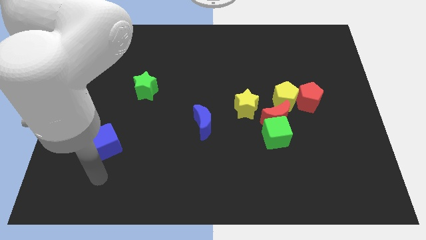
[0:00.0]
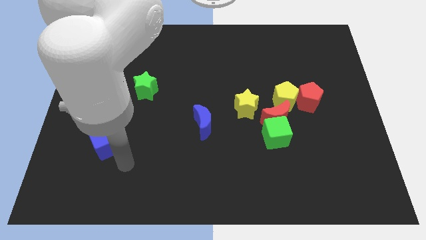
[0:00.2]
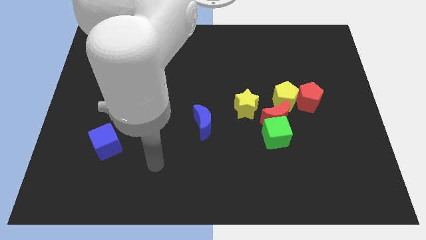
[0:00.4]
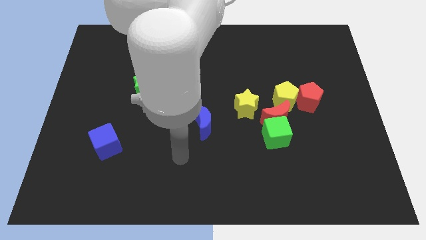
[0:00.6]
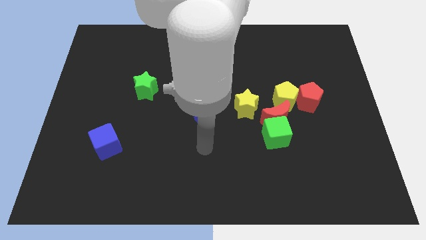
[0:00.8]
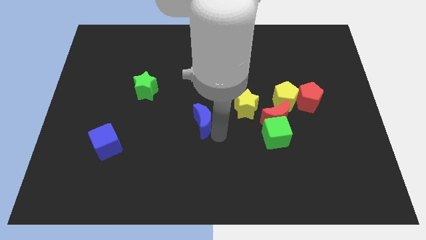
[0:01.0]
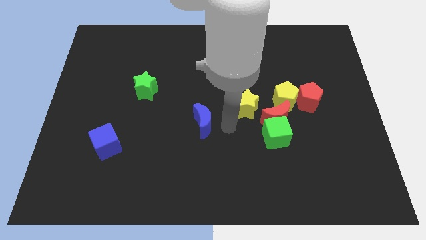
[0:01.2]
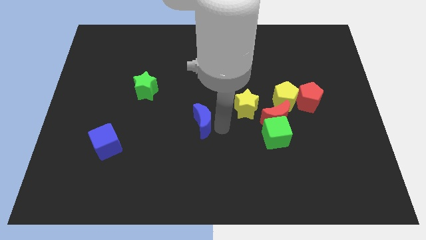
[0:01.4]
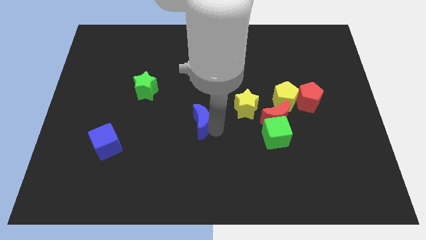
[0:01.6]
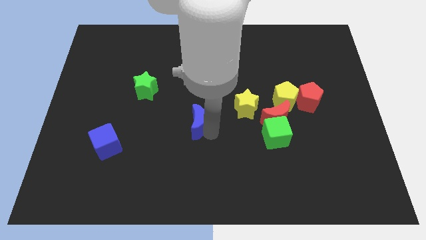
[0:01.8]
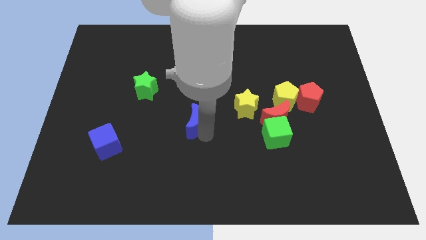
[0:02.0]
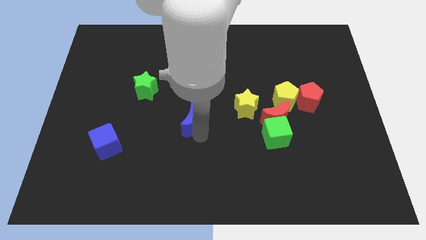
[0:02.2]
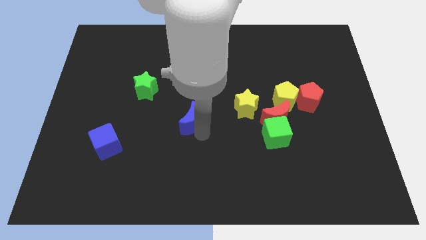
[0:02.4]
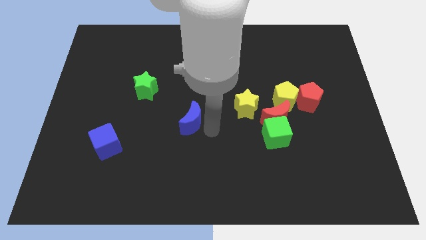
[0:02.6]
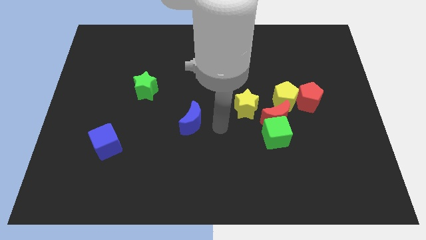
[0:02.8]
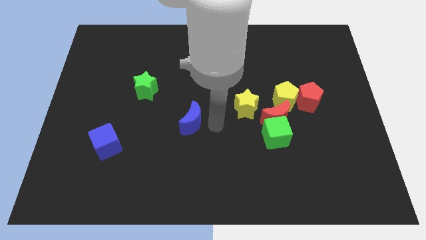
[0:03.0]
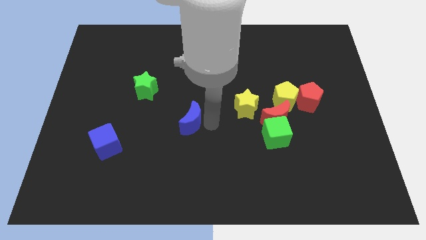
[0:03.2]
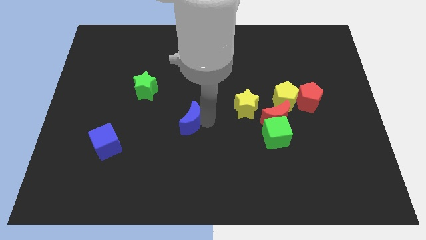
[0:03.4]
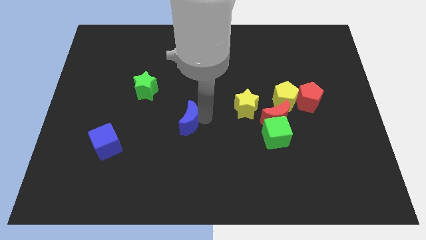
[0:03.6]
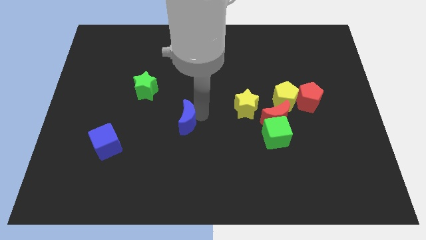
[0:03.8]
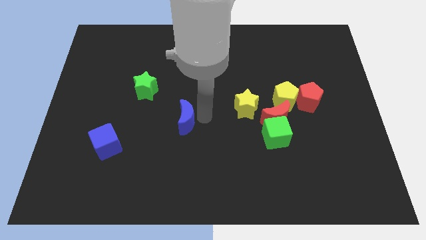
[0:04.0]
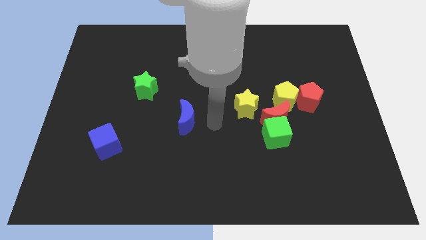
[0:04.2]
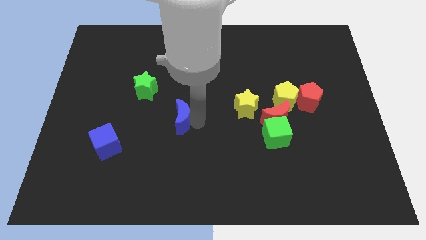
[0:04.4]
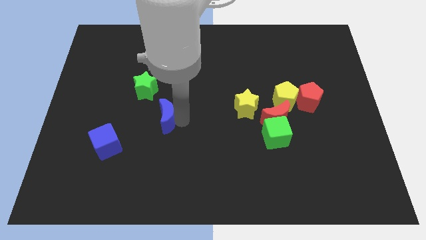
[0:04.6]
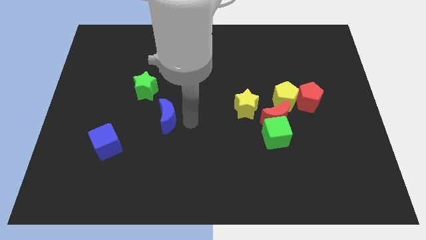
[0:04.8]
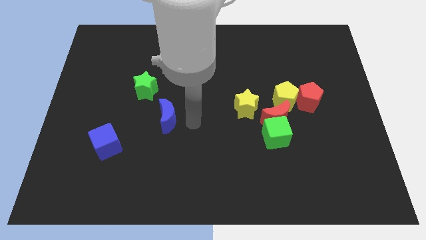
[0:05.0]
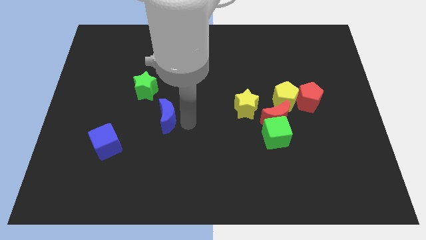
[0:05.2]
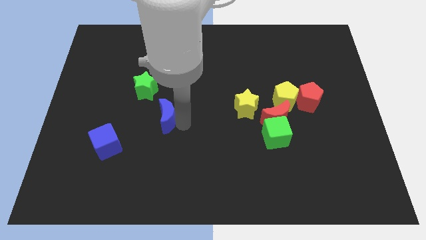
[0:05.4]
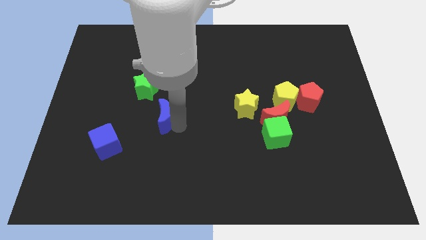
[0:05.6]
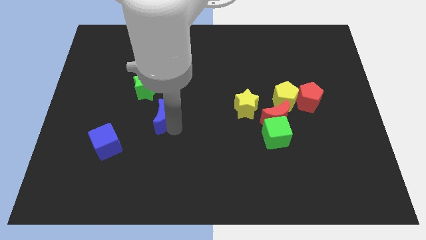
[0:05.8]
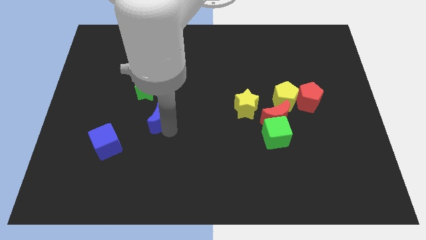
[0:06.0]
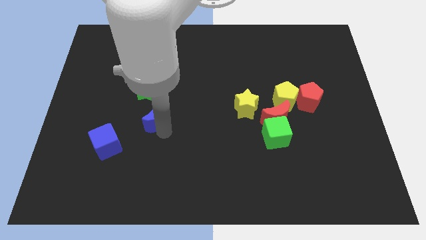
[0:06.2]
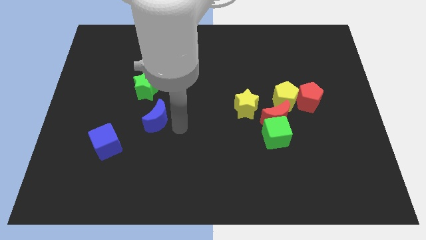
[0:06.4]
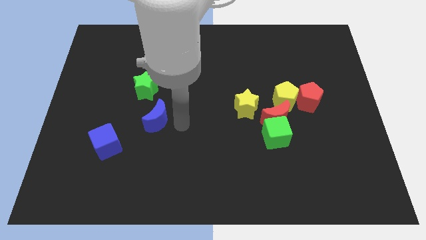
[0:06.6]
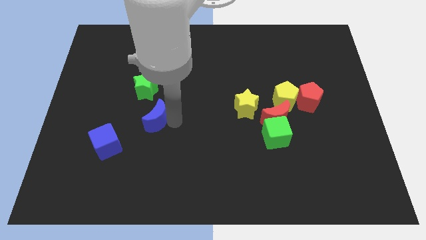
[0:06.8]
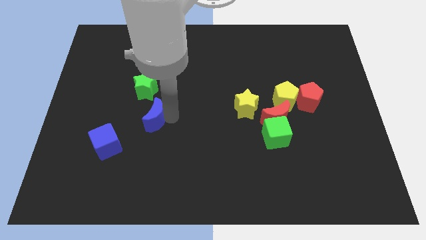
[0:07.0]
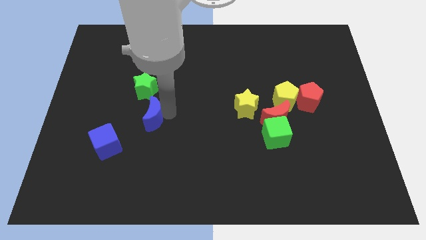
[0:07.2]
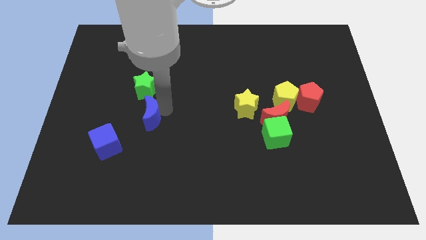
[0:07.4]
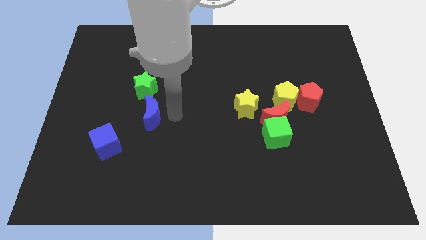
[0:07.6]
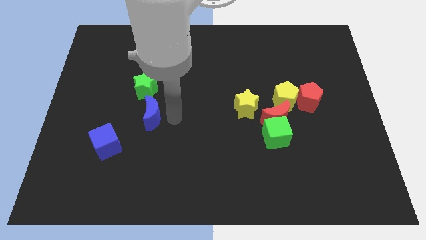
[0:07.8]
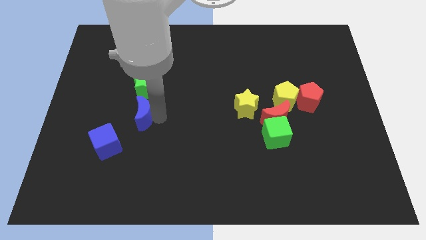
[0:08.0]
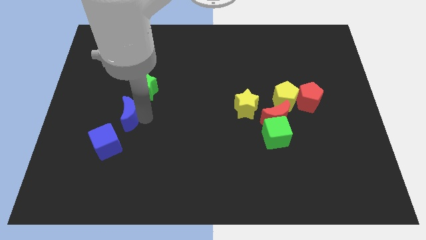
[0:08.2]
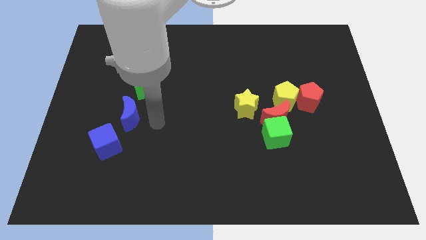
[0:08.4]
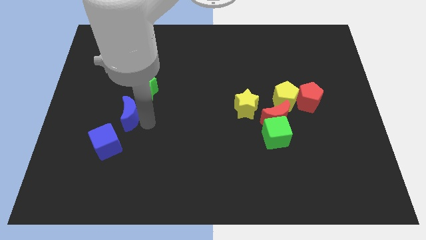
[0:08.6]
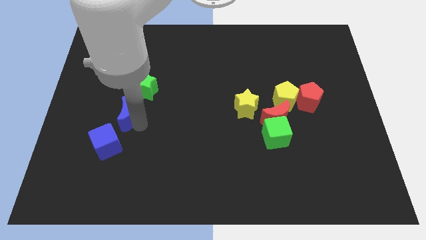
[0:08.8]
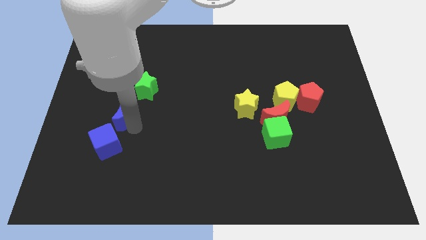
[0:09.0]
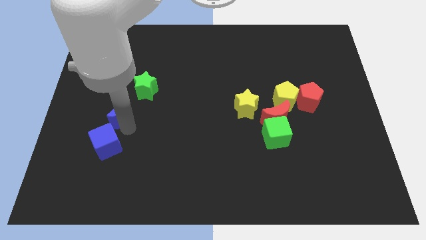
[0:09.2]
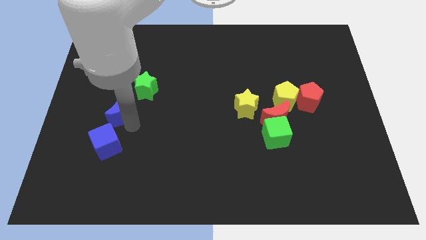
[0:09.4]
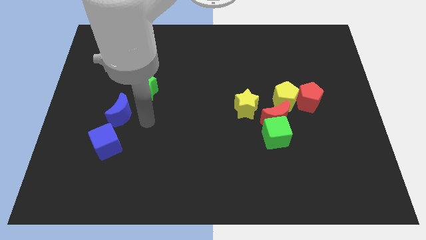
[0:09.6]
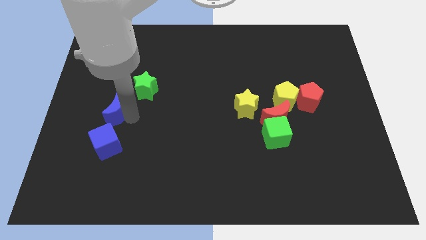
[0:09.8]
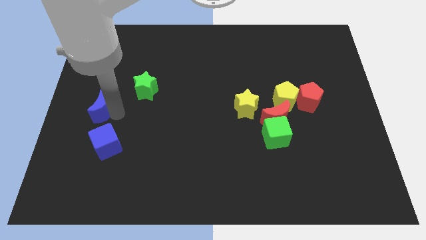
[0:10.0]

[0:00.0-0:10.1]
put the blue moon to the left side of the board

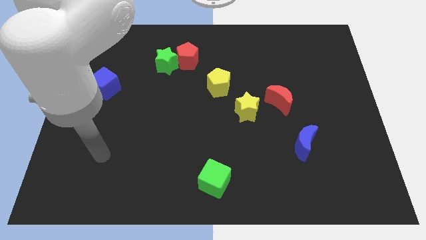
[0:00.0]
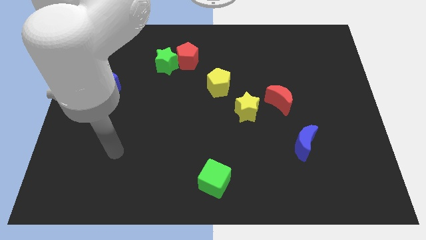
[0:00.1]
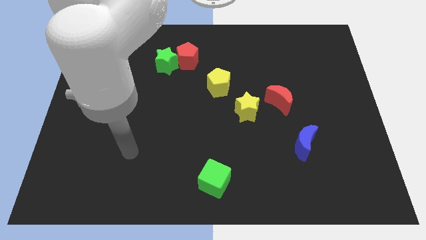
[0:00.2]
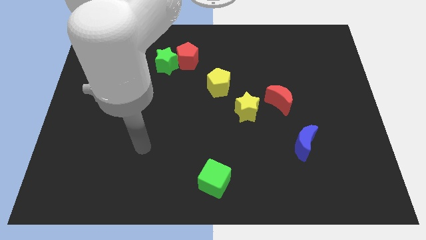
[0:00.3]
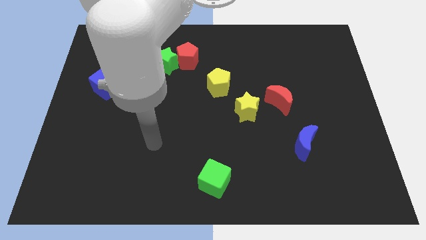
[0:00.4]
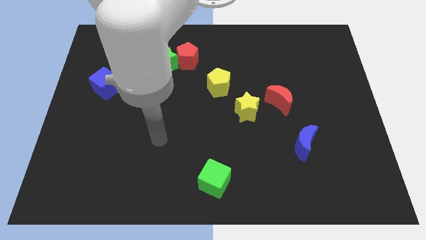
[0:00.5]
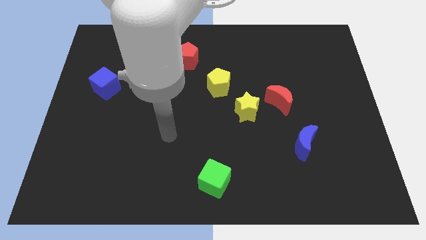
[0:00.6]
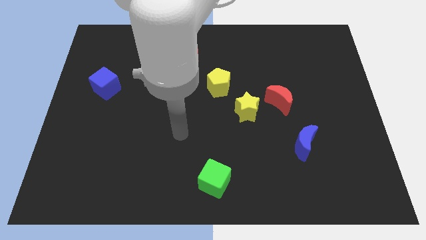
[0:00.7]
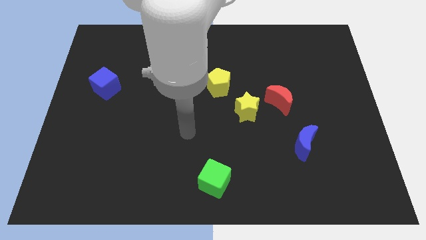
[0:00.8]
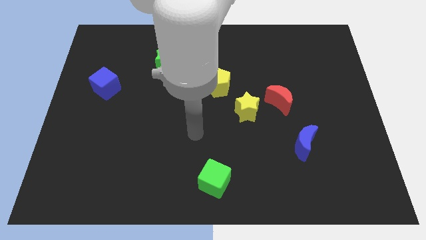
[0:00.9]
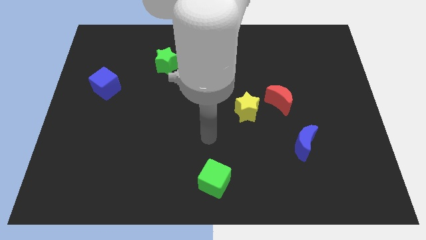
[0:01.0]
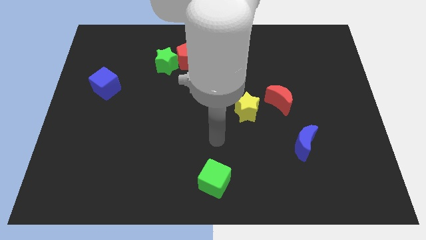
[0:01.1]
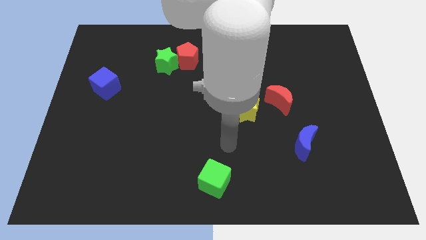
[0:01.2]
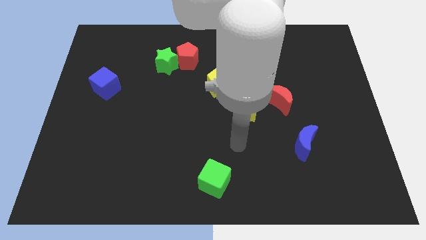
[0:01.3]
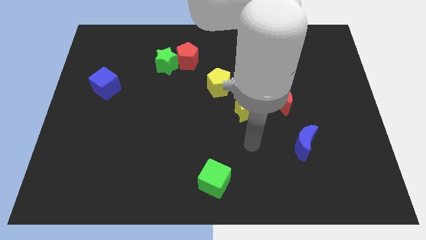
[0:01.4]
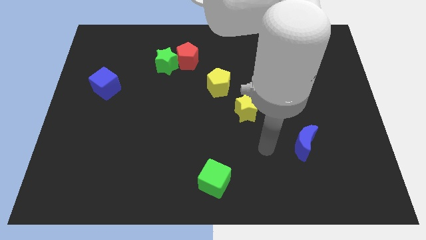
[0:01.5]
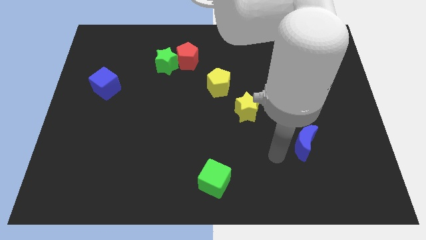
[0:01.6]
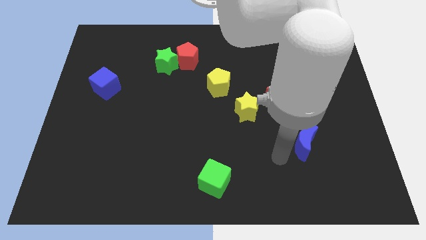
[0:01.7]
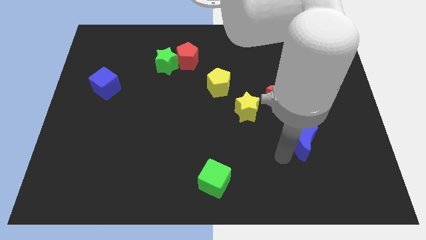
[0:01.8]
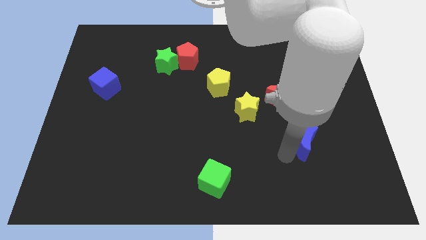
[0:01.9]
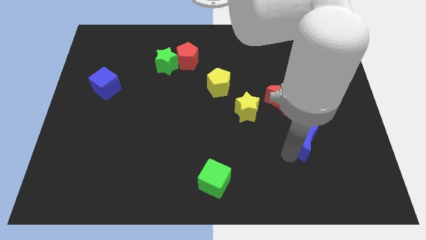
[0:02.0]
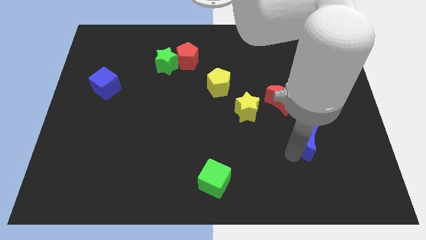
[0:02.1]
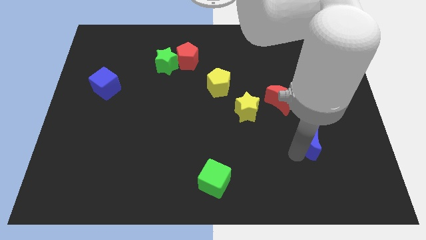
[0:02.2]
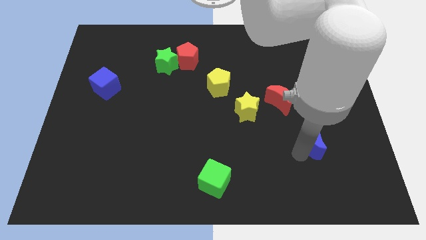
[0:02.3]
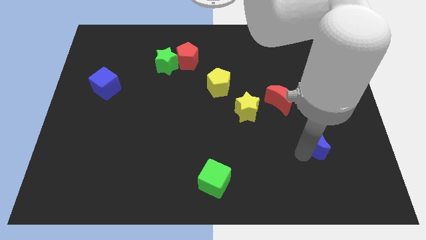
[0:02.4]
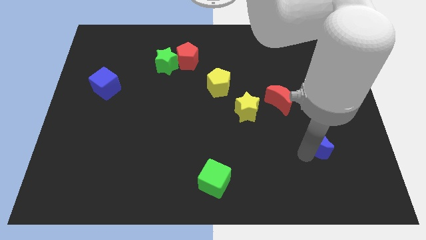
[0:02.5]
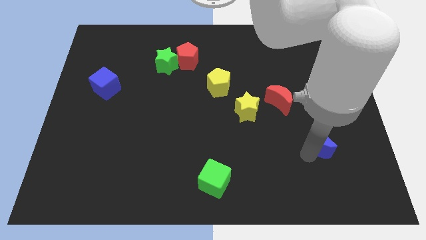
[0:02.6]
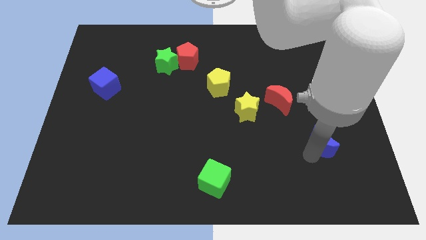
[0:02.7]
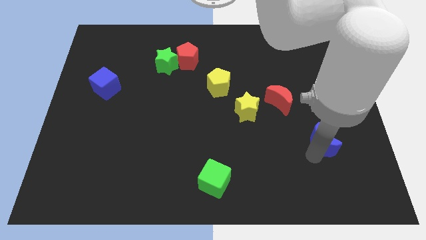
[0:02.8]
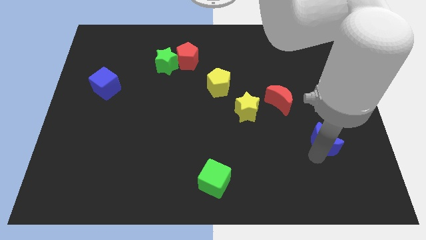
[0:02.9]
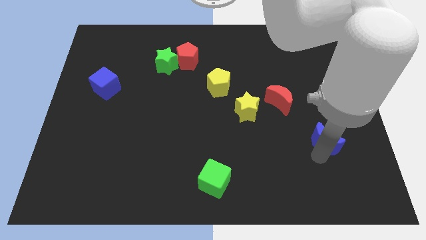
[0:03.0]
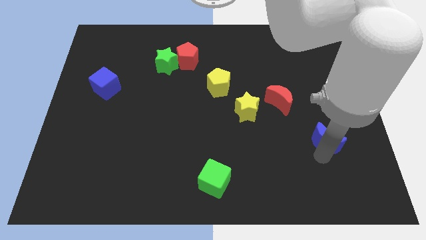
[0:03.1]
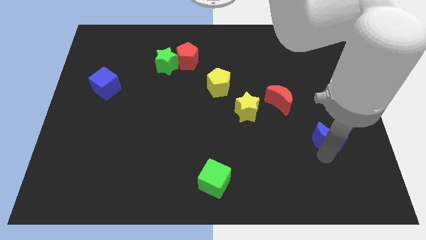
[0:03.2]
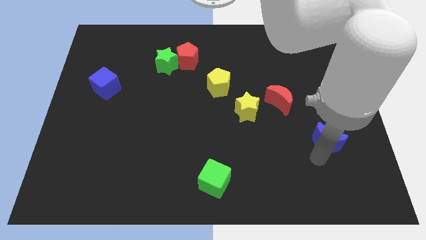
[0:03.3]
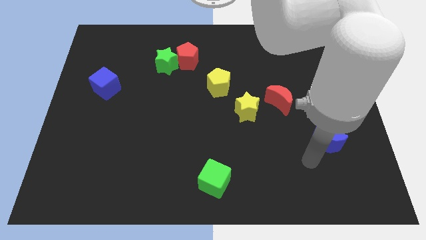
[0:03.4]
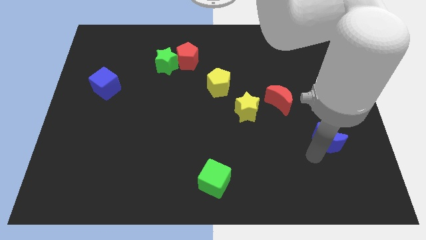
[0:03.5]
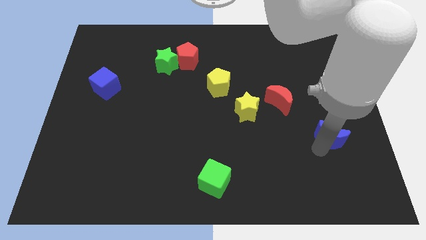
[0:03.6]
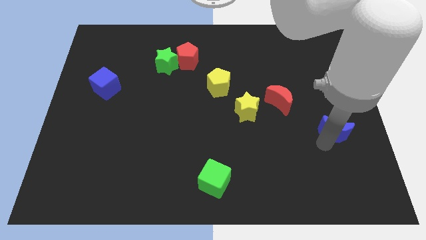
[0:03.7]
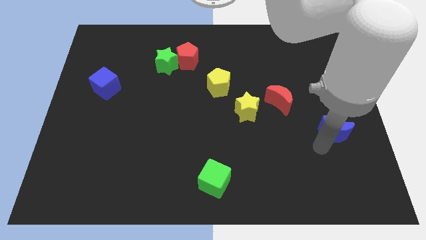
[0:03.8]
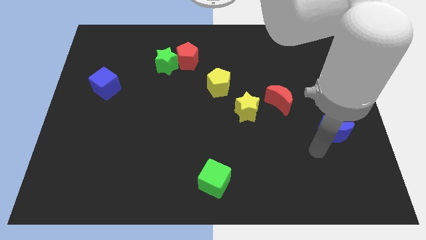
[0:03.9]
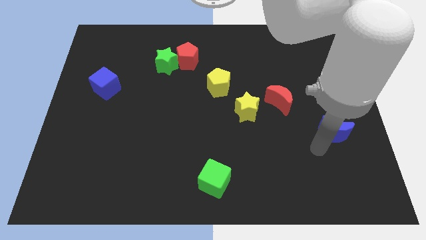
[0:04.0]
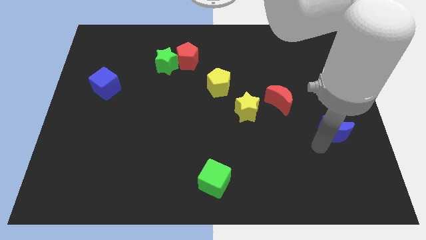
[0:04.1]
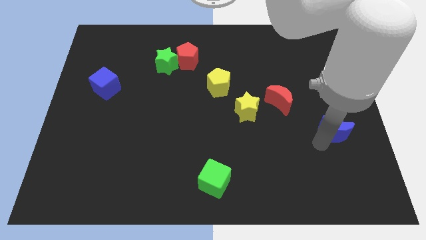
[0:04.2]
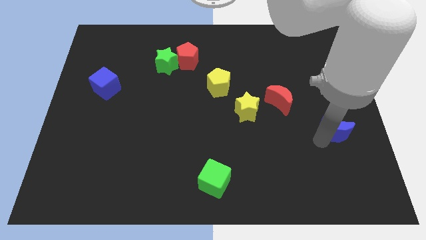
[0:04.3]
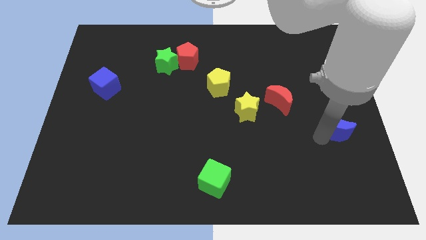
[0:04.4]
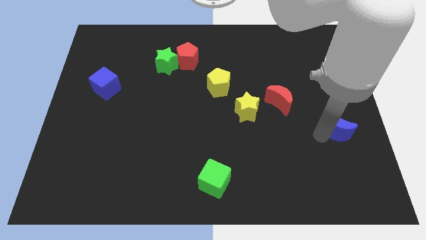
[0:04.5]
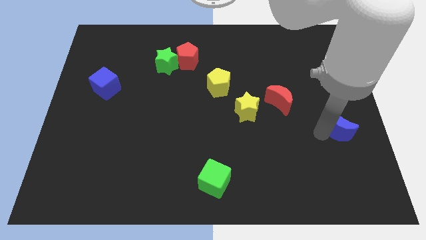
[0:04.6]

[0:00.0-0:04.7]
move the blue moon to the right side of the board
